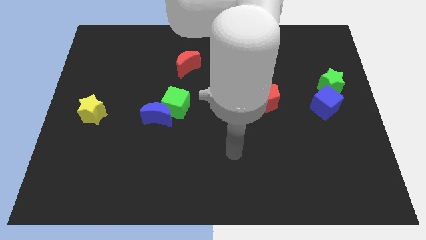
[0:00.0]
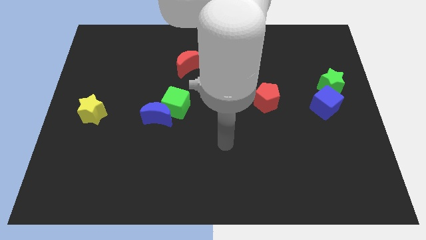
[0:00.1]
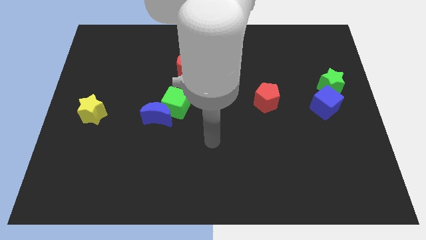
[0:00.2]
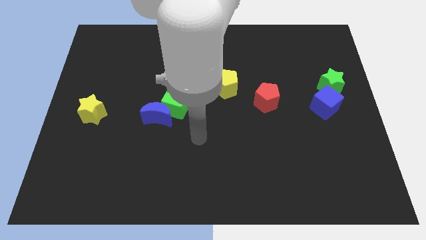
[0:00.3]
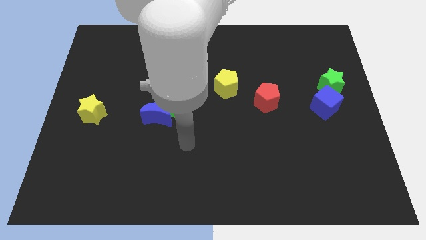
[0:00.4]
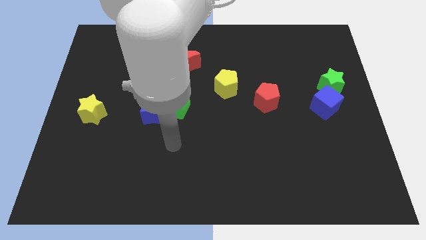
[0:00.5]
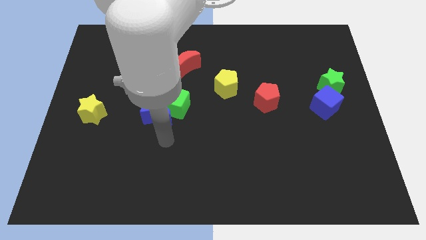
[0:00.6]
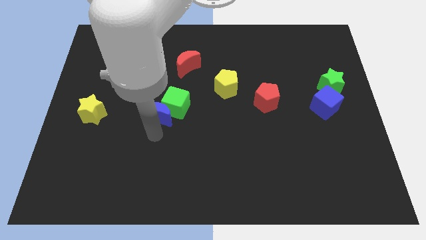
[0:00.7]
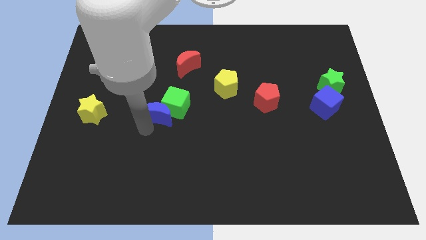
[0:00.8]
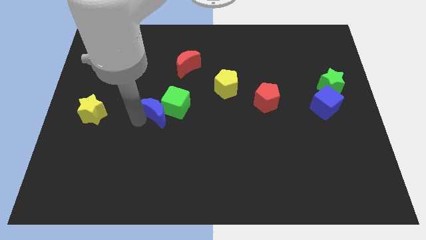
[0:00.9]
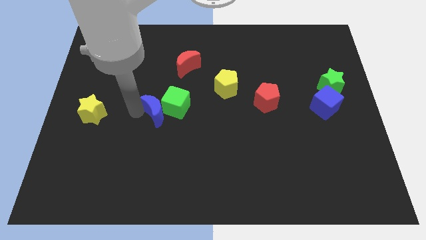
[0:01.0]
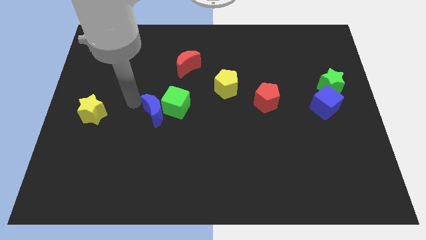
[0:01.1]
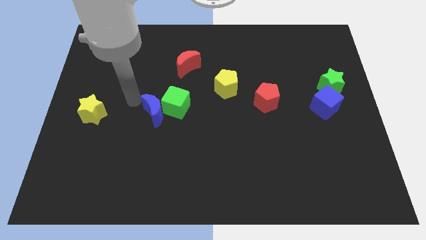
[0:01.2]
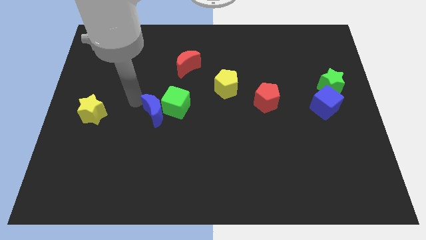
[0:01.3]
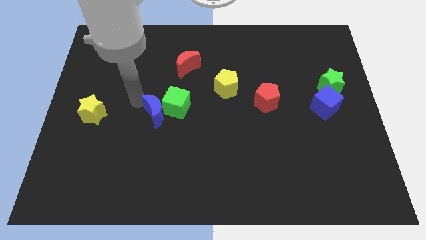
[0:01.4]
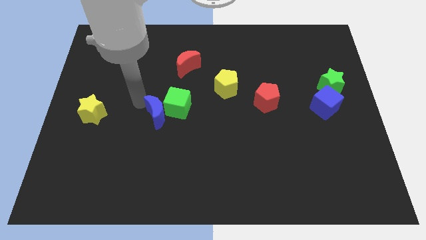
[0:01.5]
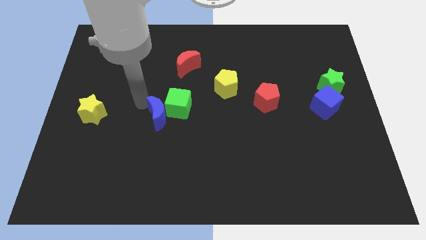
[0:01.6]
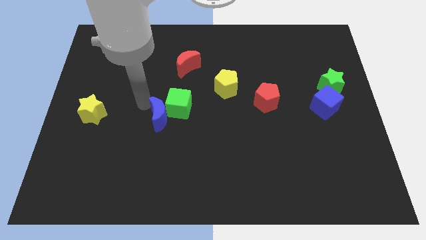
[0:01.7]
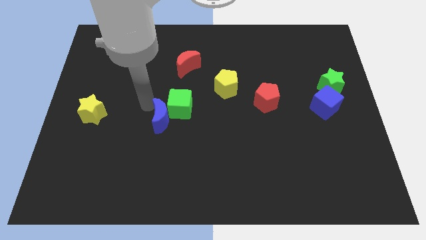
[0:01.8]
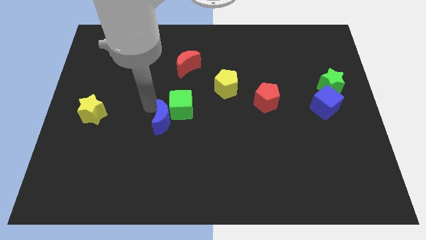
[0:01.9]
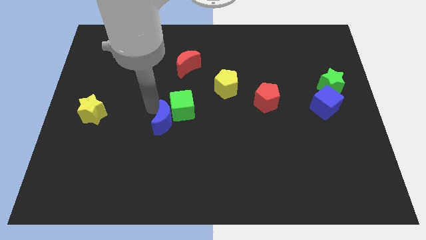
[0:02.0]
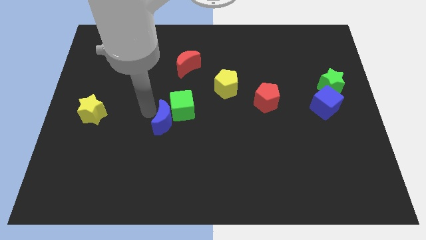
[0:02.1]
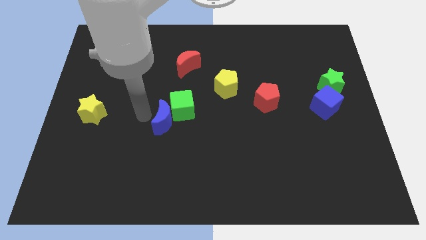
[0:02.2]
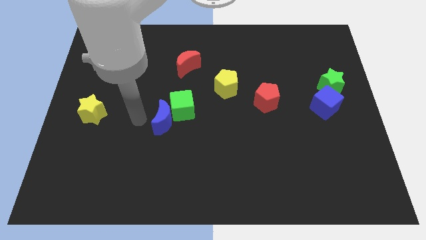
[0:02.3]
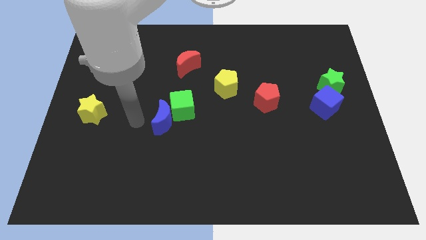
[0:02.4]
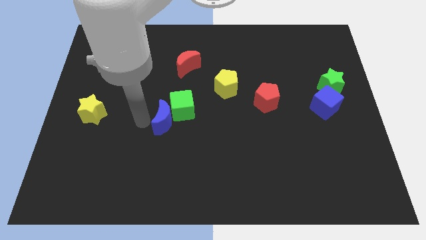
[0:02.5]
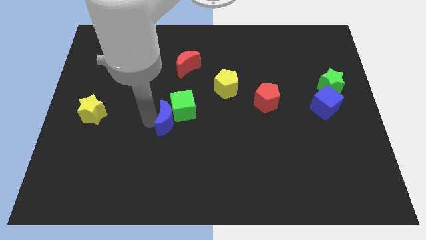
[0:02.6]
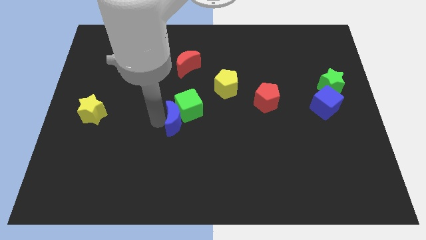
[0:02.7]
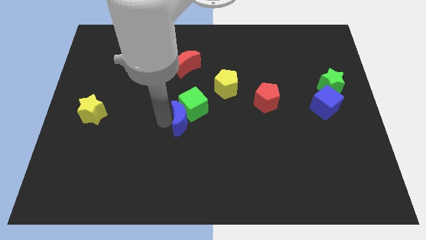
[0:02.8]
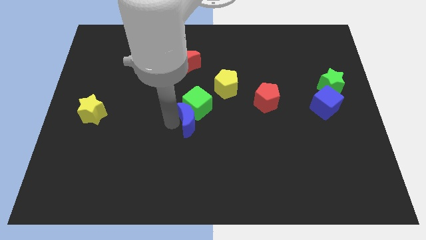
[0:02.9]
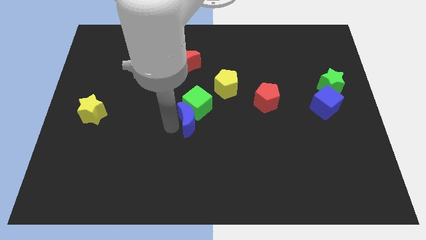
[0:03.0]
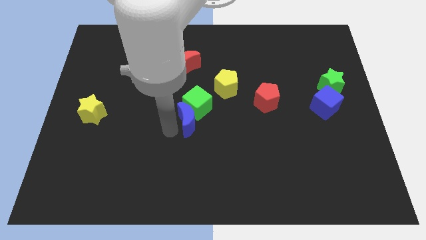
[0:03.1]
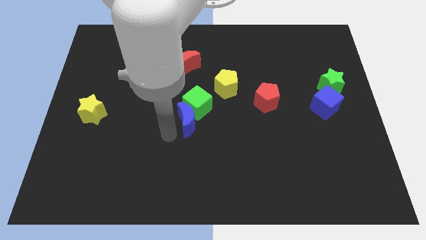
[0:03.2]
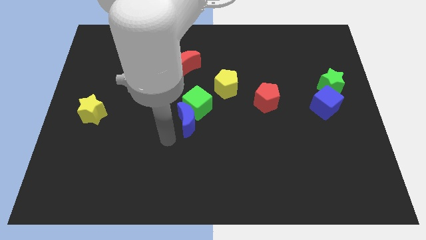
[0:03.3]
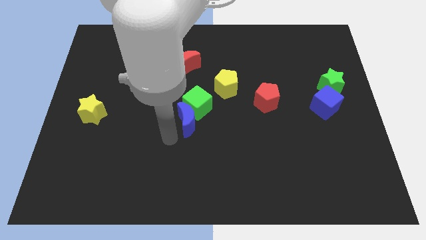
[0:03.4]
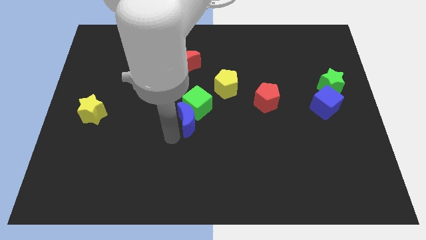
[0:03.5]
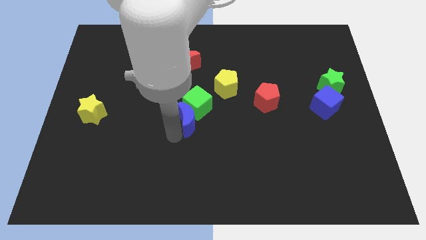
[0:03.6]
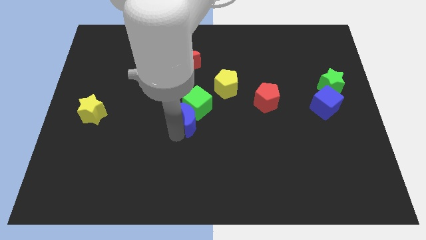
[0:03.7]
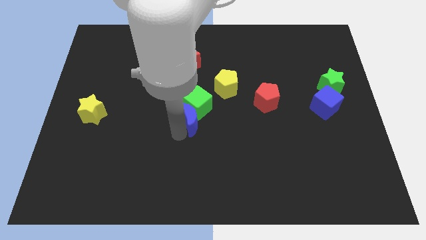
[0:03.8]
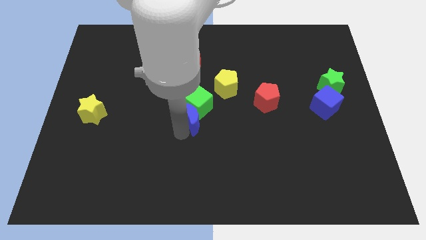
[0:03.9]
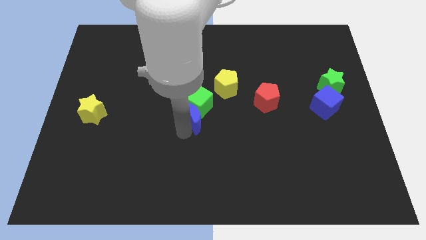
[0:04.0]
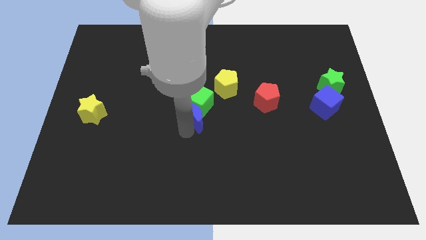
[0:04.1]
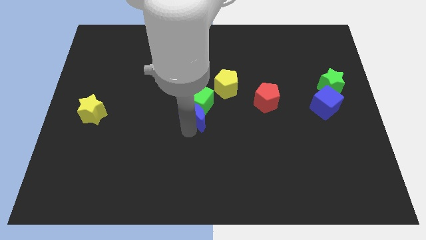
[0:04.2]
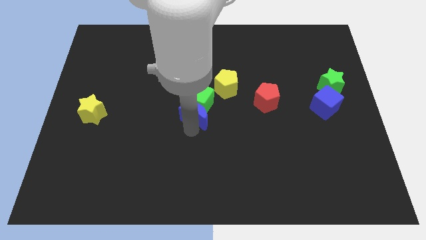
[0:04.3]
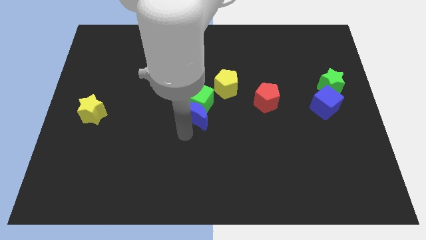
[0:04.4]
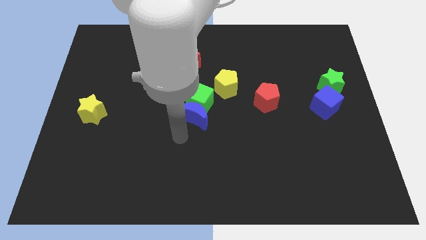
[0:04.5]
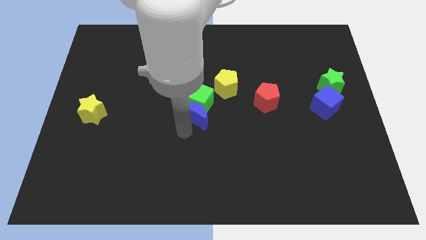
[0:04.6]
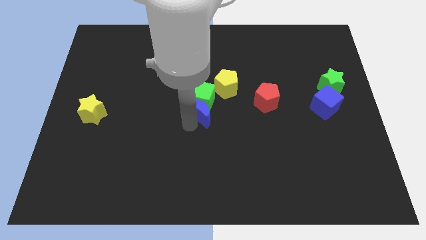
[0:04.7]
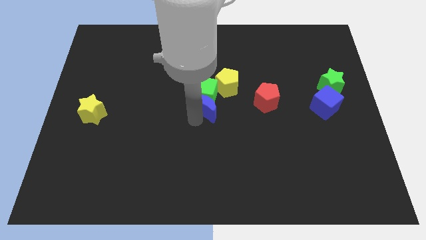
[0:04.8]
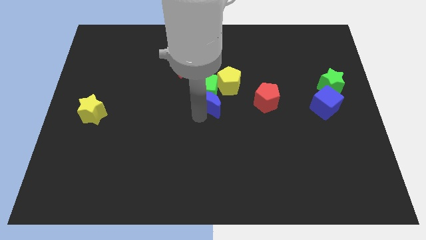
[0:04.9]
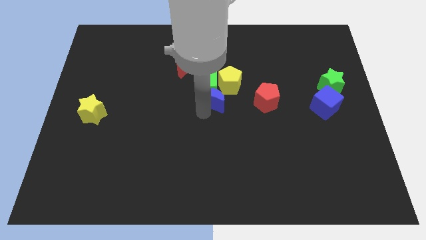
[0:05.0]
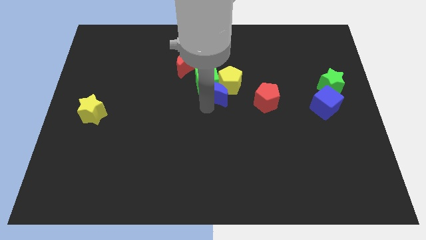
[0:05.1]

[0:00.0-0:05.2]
push the blue moon close to the yellow pentagon

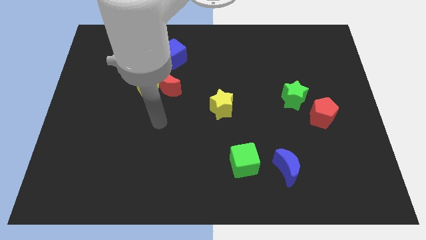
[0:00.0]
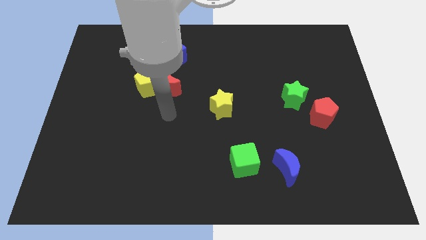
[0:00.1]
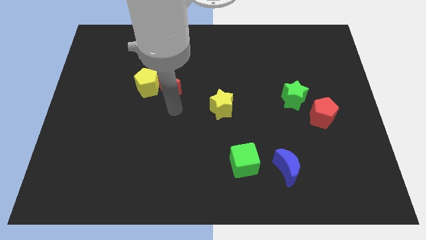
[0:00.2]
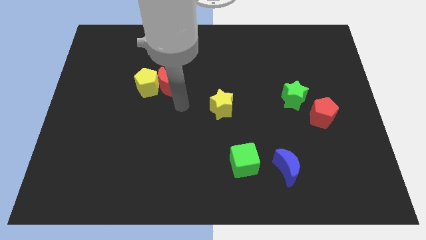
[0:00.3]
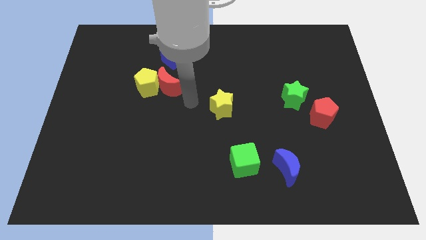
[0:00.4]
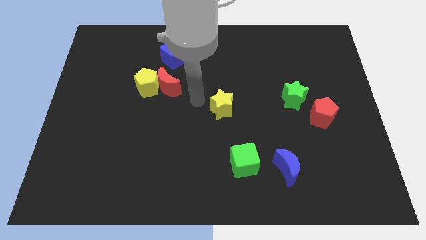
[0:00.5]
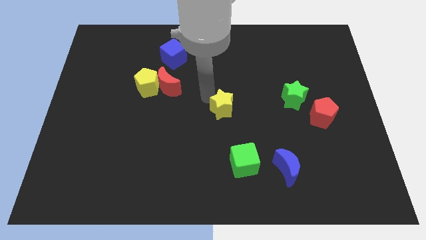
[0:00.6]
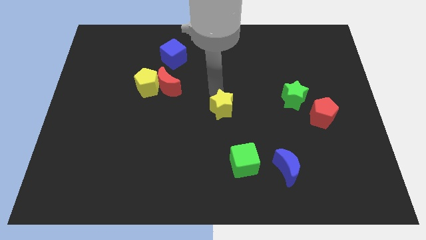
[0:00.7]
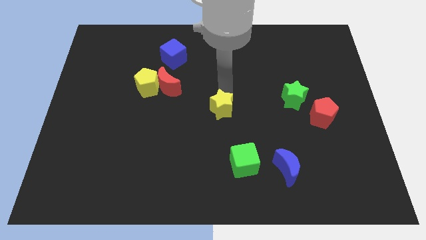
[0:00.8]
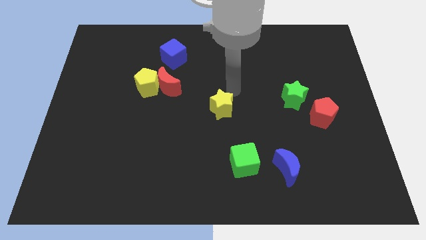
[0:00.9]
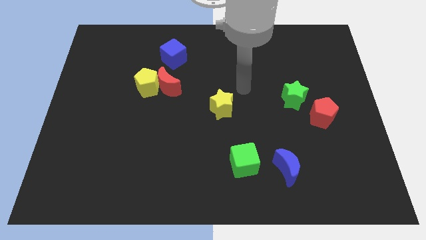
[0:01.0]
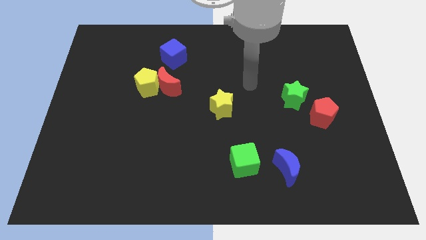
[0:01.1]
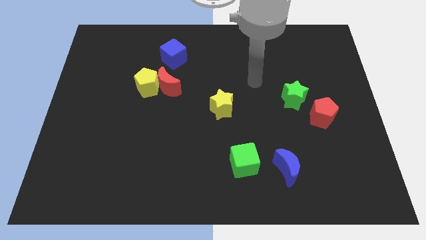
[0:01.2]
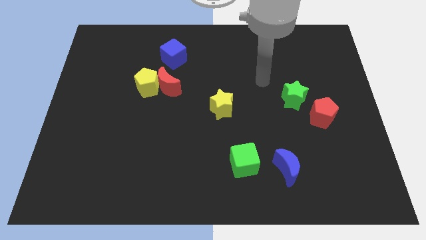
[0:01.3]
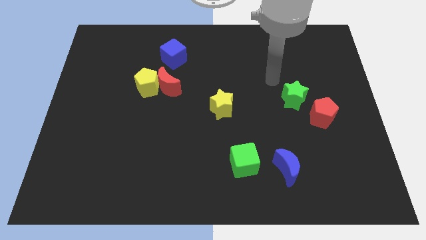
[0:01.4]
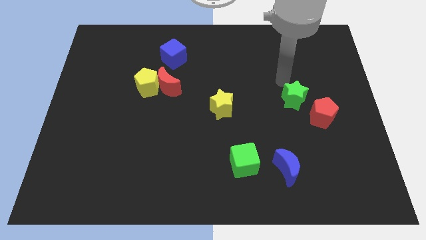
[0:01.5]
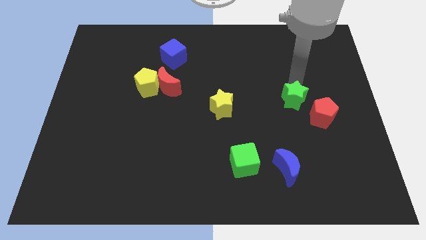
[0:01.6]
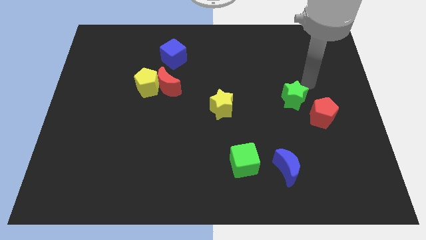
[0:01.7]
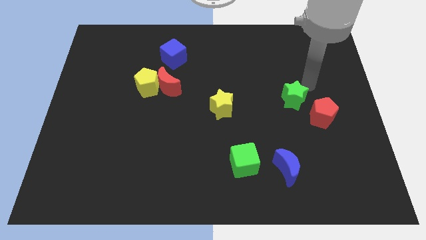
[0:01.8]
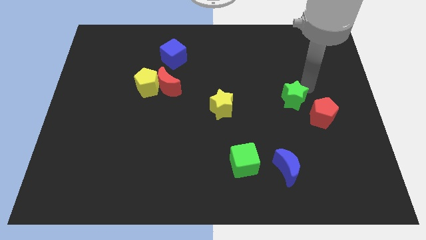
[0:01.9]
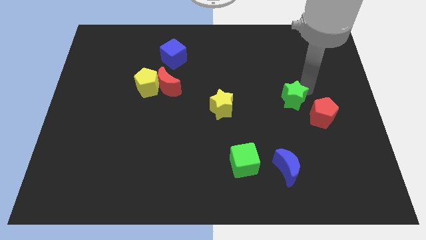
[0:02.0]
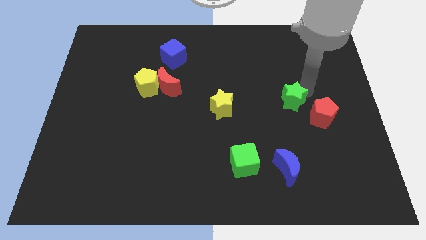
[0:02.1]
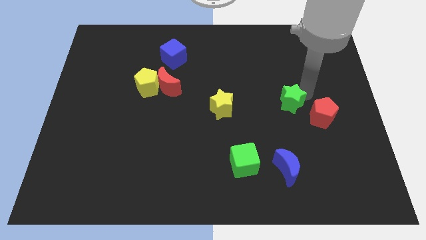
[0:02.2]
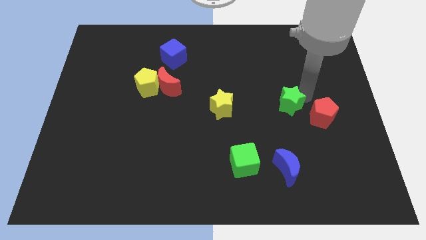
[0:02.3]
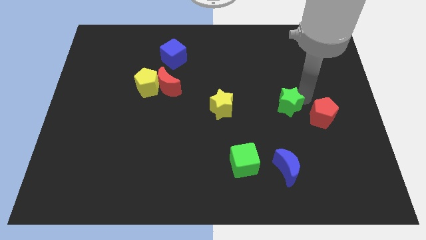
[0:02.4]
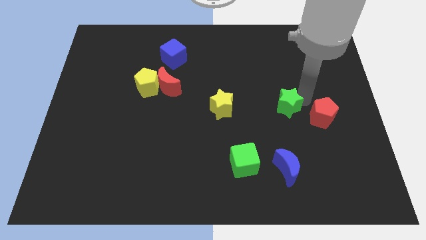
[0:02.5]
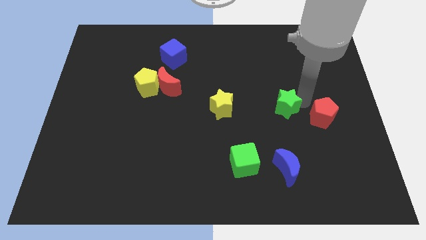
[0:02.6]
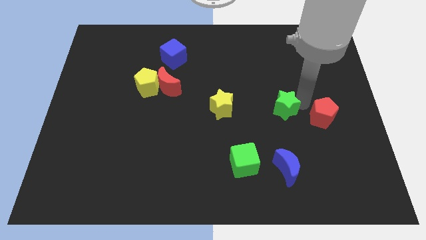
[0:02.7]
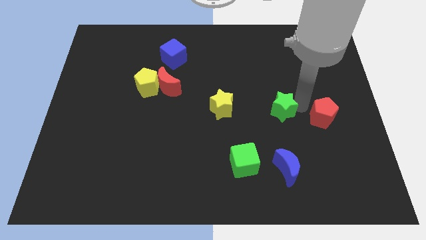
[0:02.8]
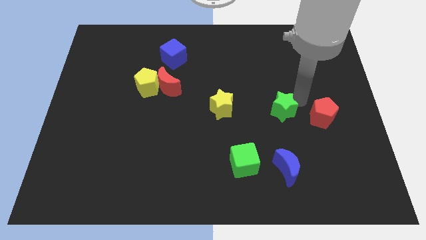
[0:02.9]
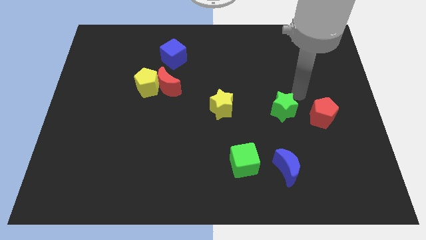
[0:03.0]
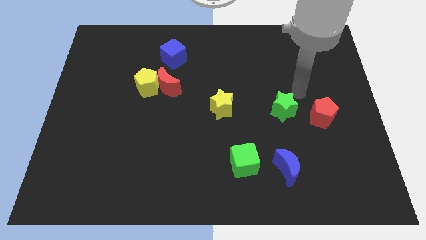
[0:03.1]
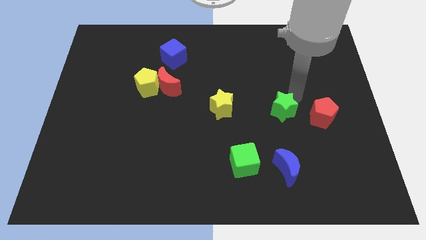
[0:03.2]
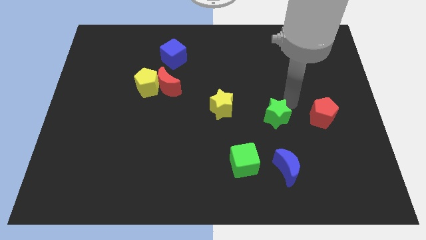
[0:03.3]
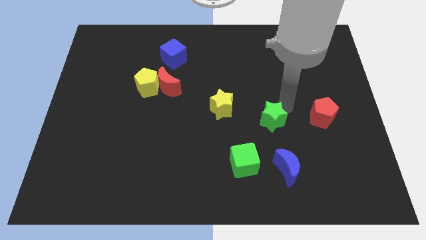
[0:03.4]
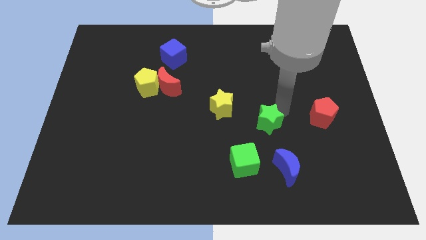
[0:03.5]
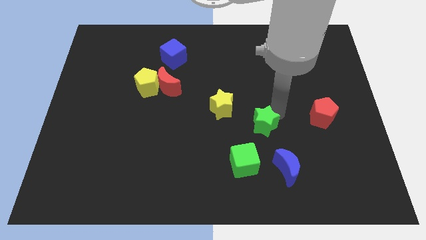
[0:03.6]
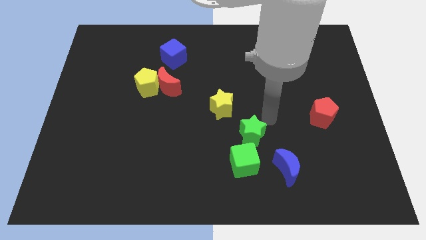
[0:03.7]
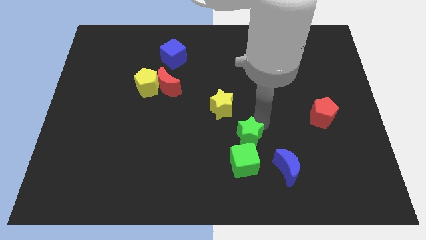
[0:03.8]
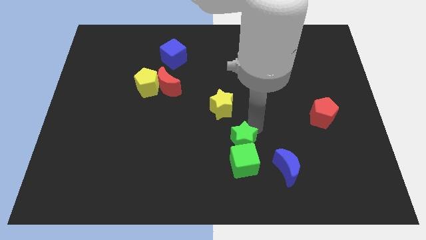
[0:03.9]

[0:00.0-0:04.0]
move the green star towards the green cube
